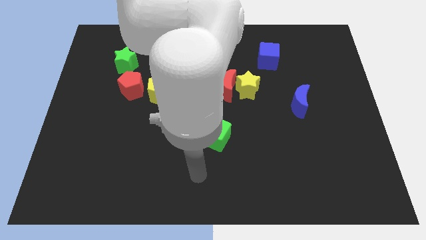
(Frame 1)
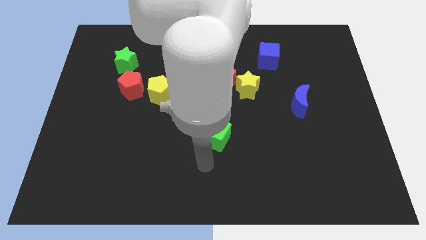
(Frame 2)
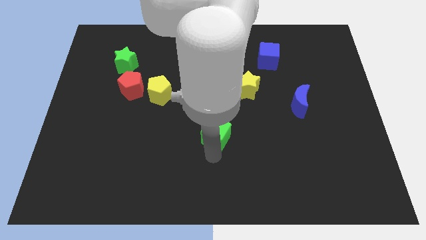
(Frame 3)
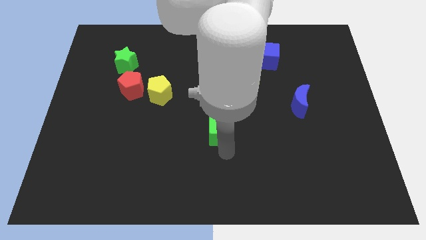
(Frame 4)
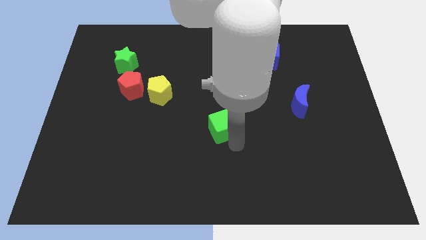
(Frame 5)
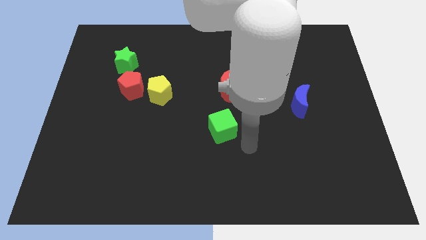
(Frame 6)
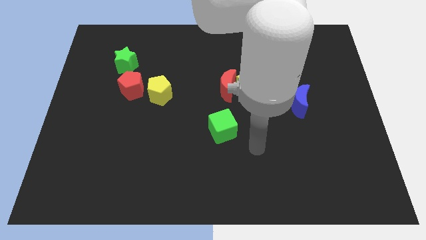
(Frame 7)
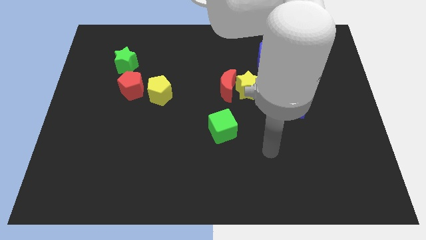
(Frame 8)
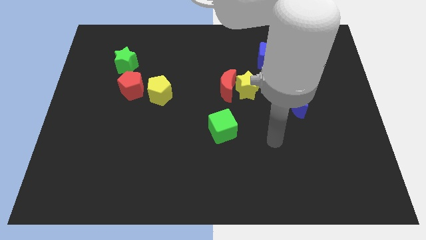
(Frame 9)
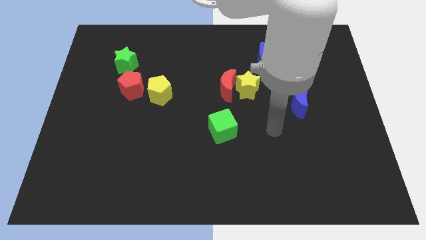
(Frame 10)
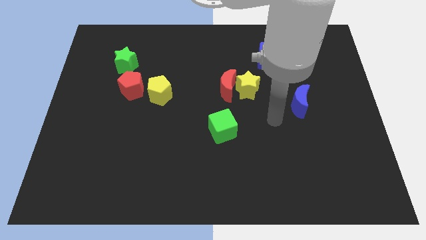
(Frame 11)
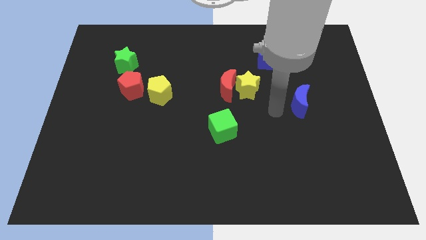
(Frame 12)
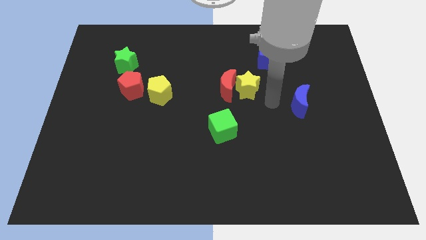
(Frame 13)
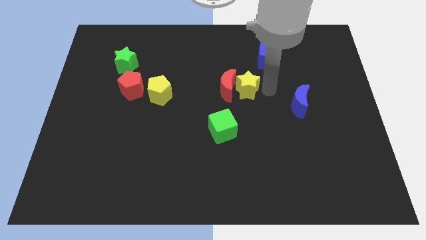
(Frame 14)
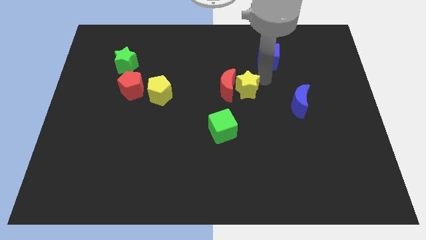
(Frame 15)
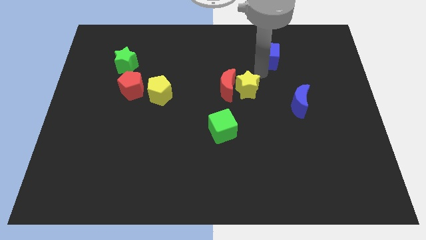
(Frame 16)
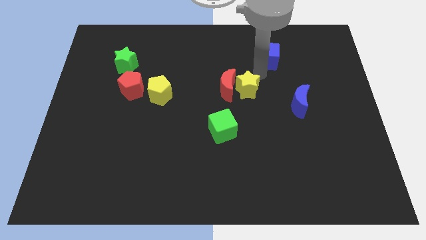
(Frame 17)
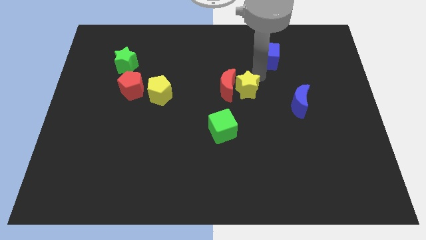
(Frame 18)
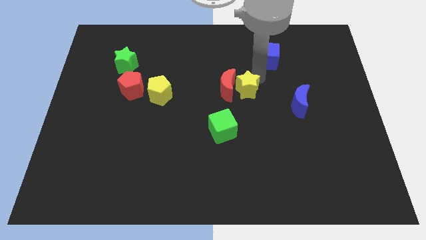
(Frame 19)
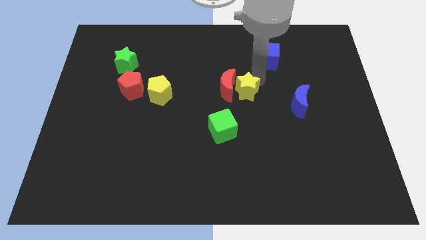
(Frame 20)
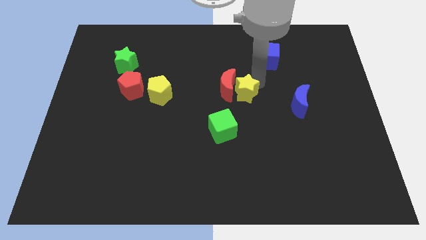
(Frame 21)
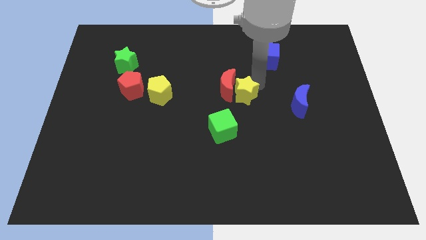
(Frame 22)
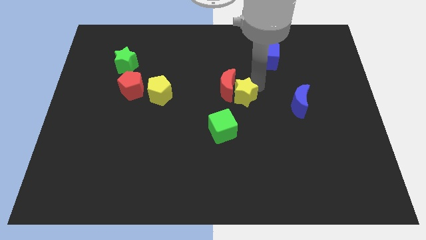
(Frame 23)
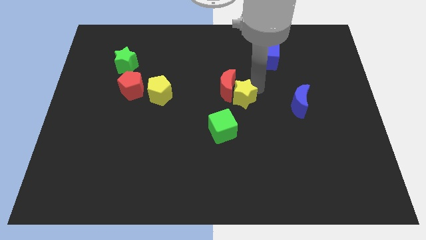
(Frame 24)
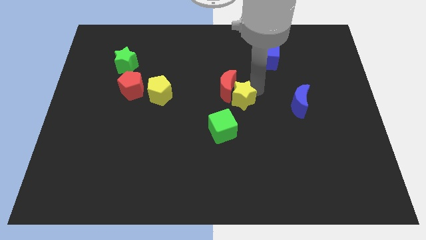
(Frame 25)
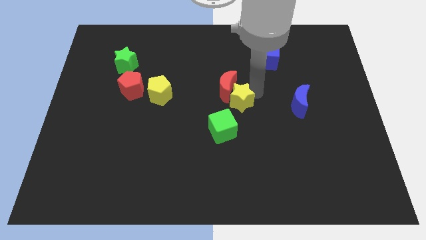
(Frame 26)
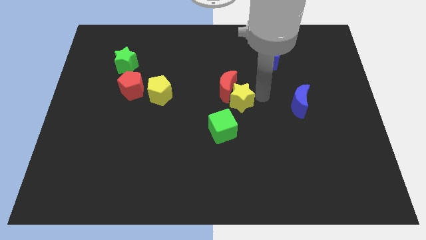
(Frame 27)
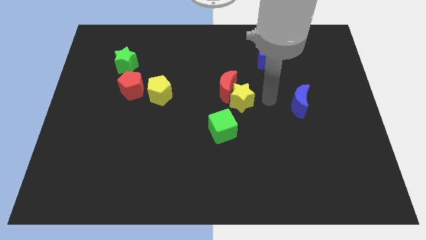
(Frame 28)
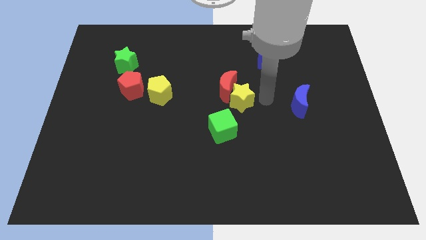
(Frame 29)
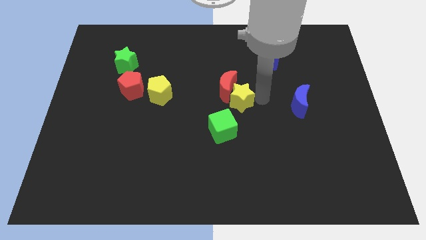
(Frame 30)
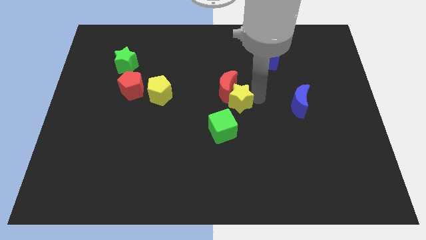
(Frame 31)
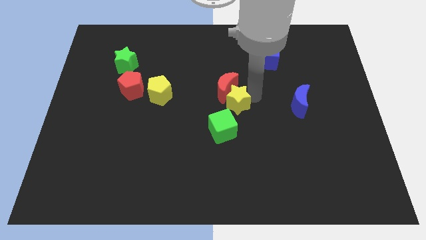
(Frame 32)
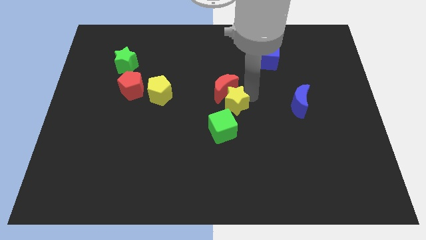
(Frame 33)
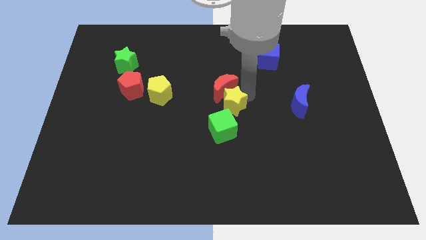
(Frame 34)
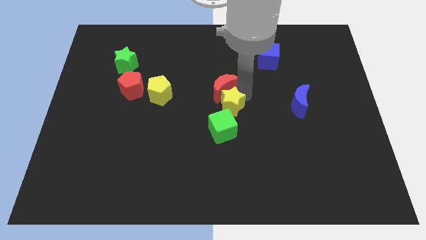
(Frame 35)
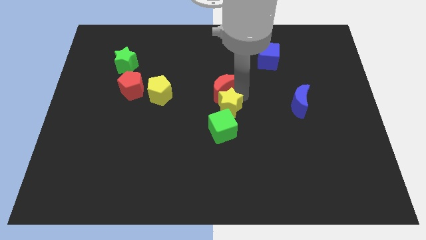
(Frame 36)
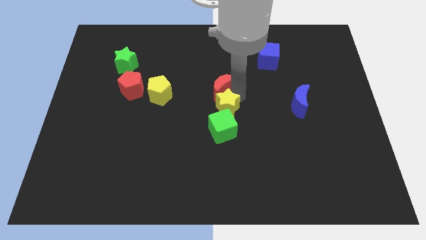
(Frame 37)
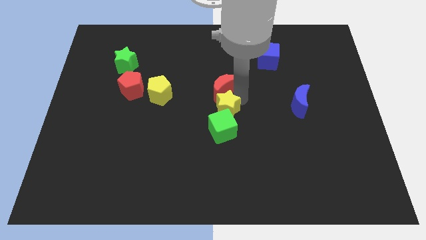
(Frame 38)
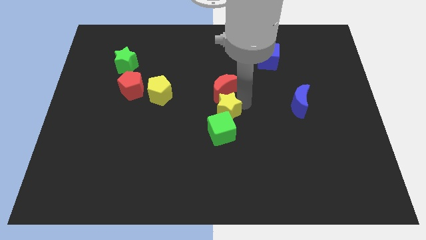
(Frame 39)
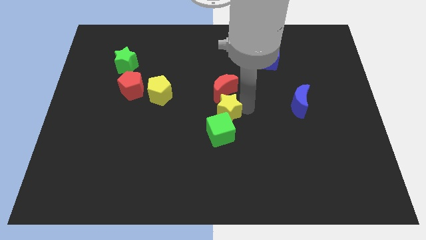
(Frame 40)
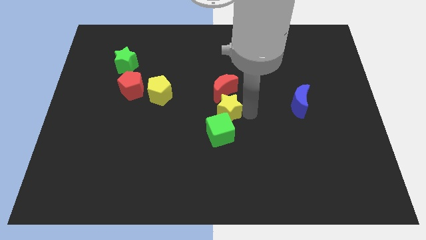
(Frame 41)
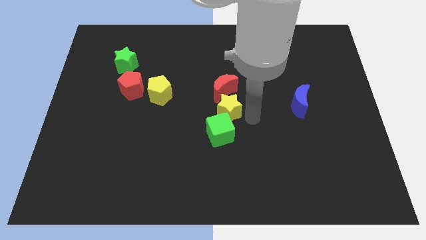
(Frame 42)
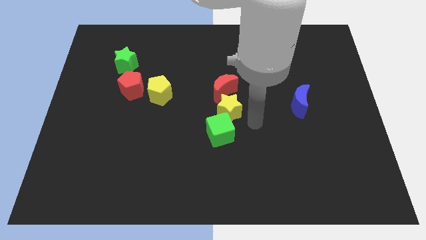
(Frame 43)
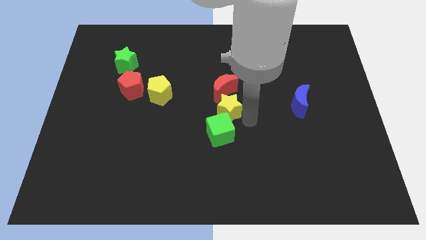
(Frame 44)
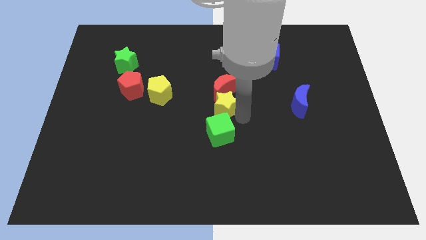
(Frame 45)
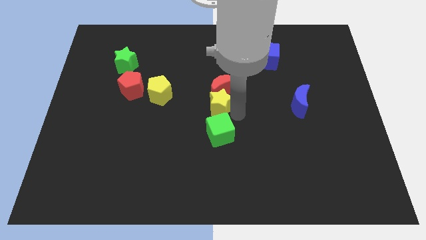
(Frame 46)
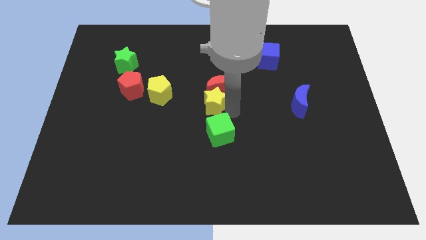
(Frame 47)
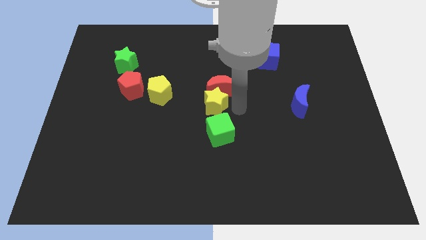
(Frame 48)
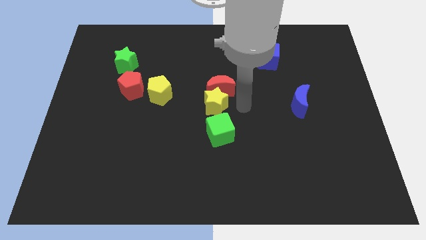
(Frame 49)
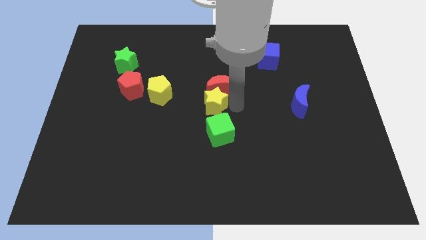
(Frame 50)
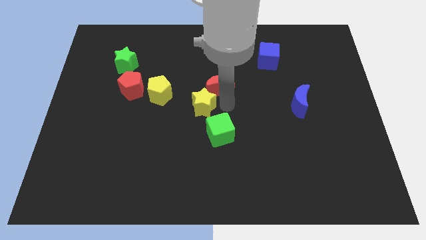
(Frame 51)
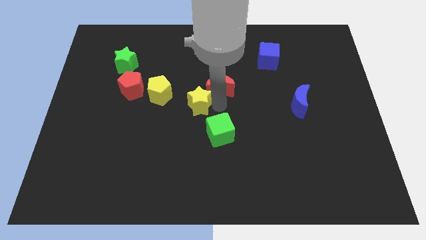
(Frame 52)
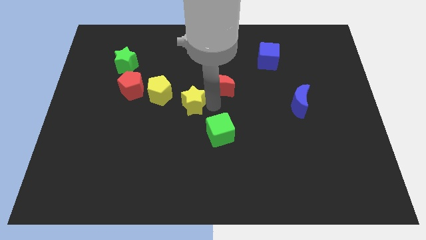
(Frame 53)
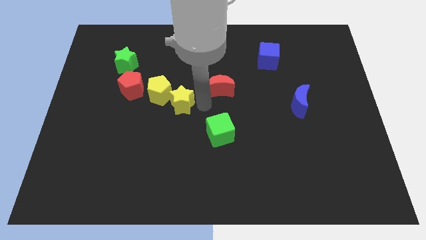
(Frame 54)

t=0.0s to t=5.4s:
move the yellow star towards the yellow pentagon

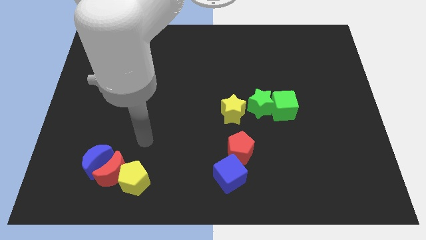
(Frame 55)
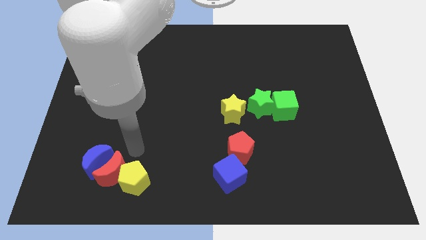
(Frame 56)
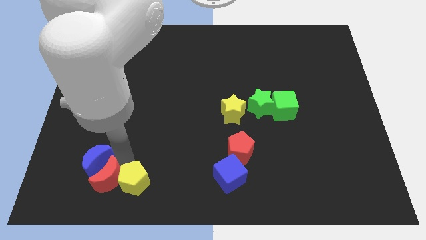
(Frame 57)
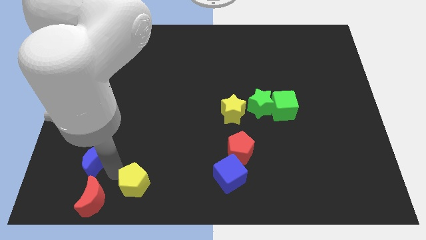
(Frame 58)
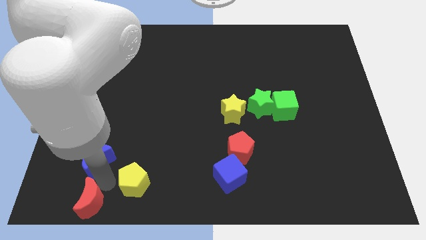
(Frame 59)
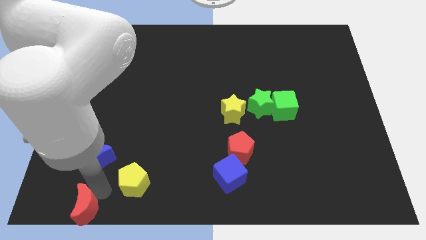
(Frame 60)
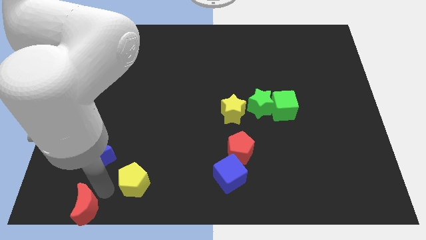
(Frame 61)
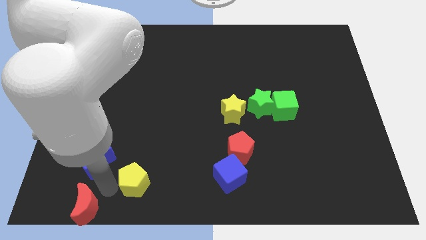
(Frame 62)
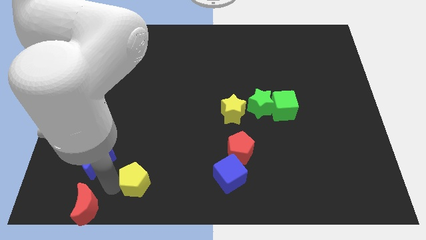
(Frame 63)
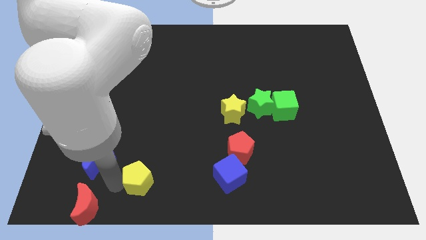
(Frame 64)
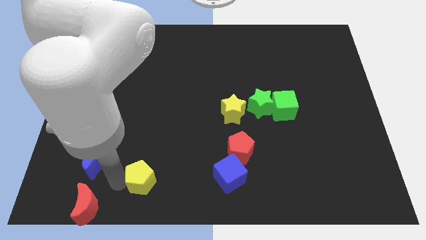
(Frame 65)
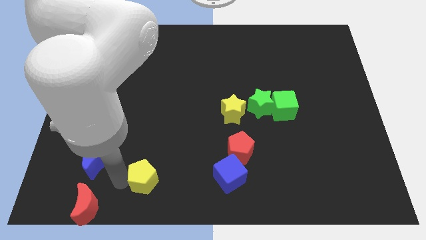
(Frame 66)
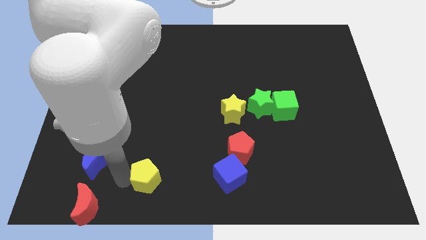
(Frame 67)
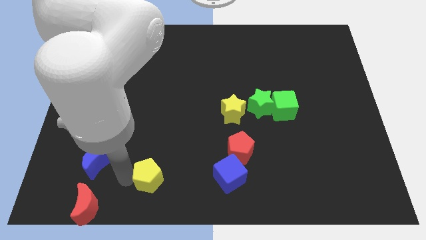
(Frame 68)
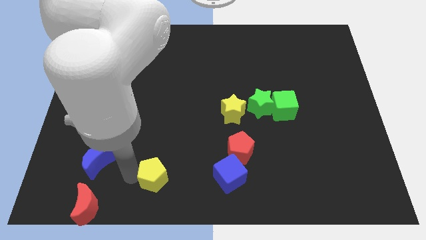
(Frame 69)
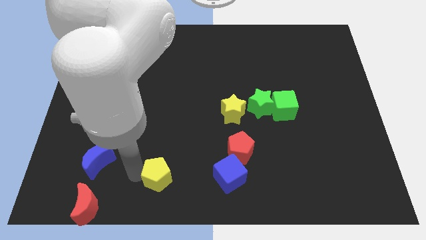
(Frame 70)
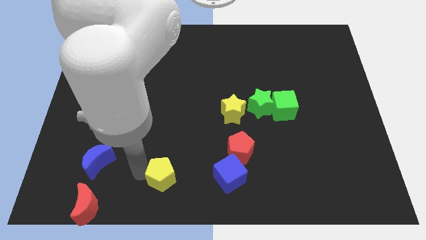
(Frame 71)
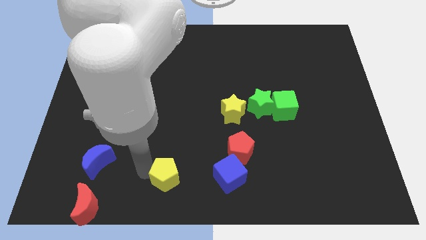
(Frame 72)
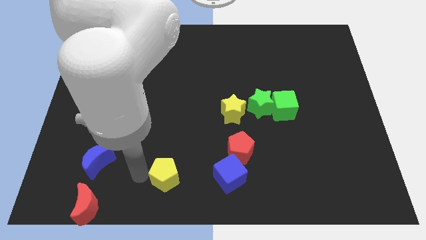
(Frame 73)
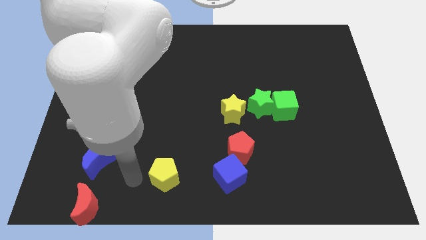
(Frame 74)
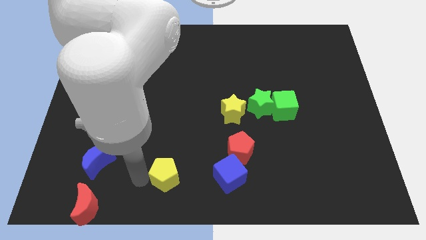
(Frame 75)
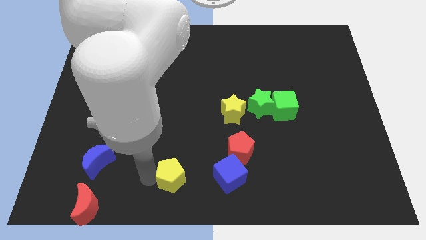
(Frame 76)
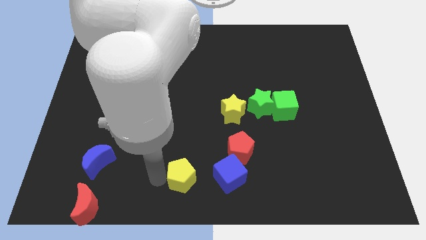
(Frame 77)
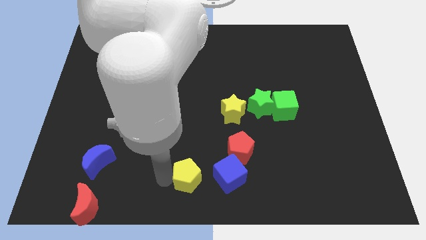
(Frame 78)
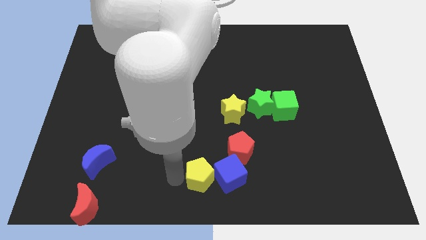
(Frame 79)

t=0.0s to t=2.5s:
push the yellow pentagon next to the blue cube
